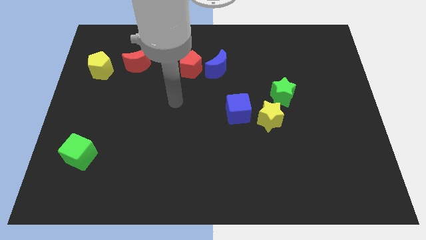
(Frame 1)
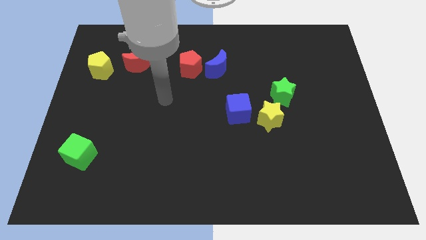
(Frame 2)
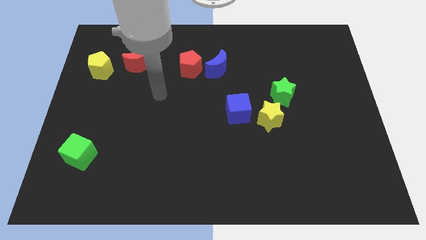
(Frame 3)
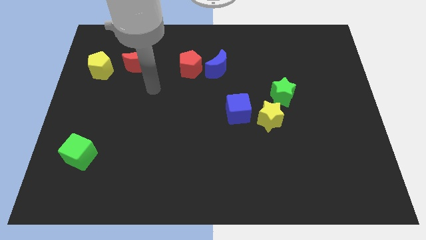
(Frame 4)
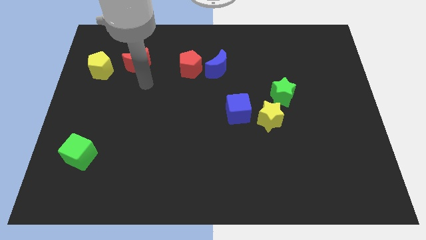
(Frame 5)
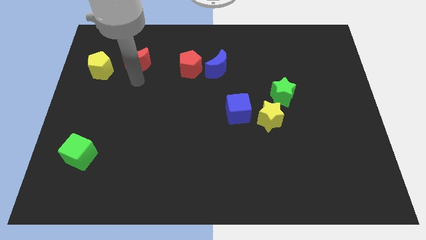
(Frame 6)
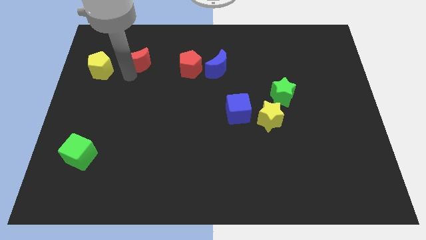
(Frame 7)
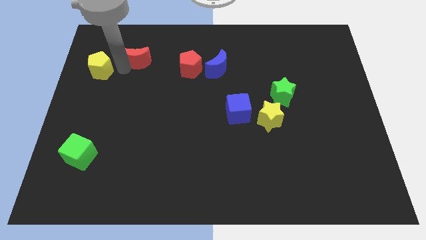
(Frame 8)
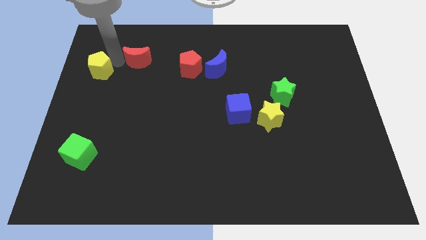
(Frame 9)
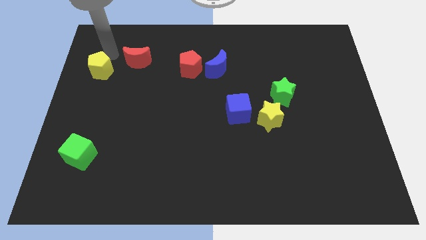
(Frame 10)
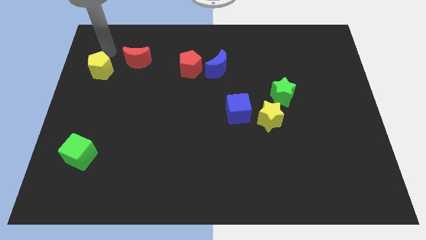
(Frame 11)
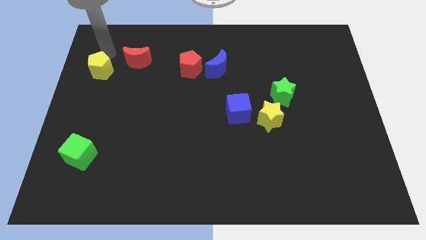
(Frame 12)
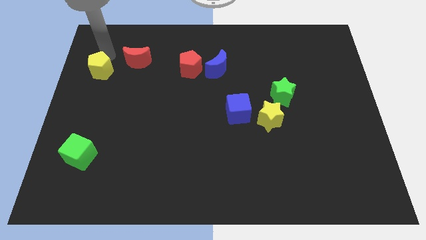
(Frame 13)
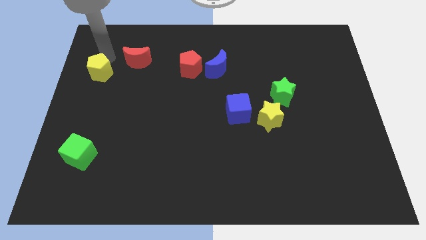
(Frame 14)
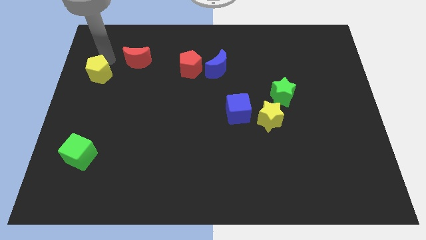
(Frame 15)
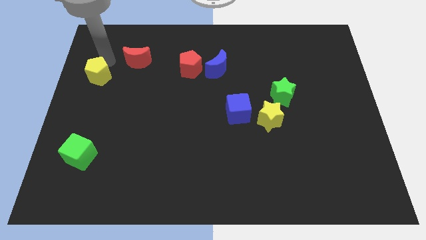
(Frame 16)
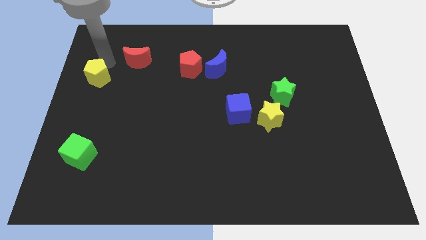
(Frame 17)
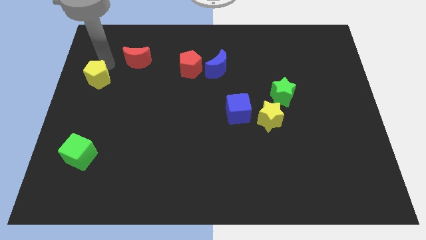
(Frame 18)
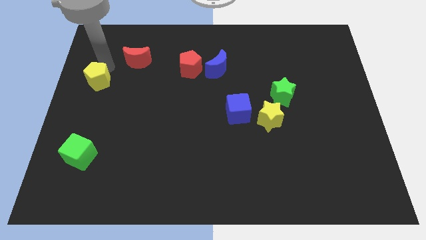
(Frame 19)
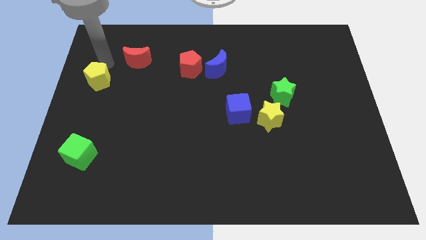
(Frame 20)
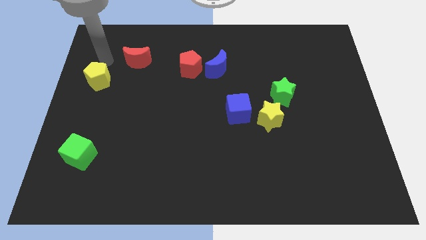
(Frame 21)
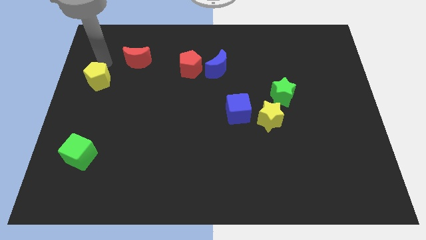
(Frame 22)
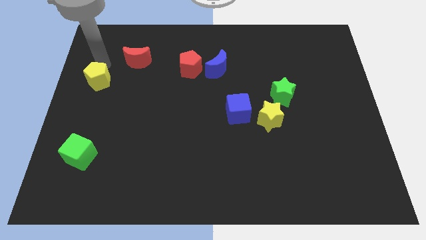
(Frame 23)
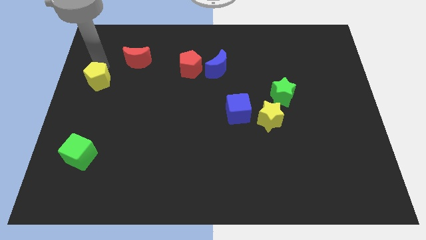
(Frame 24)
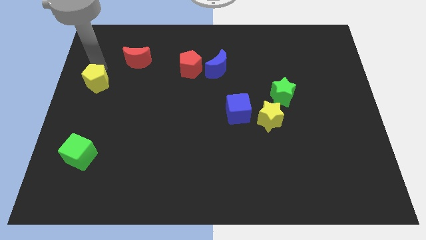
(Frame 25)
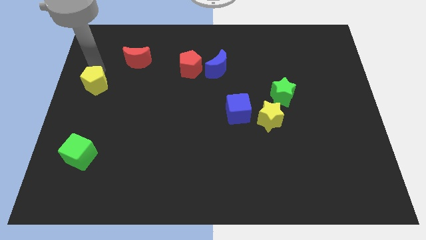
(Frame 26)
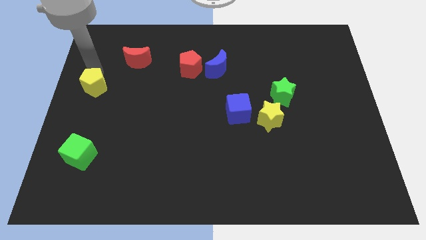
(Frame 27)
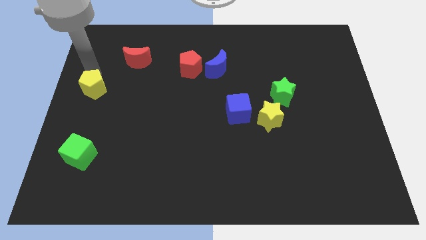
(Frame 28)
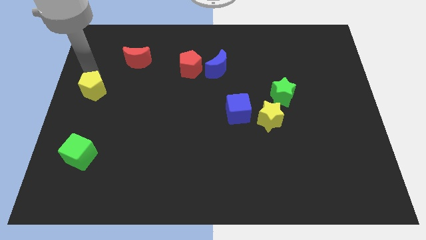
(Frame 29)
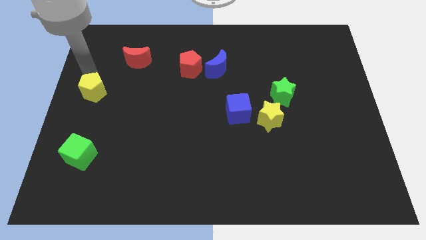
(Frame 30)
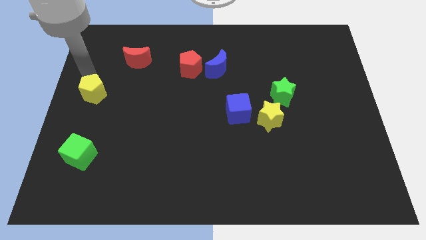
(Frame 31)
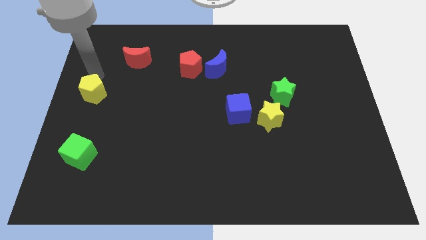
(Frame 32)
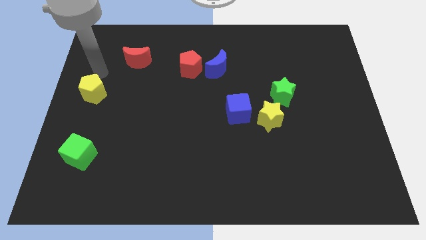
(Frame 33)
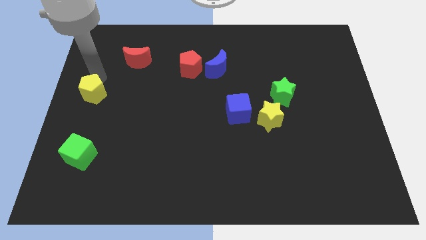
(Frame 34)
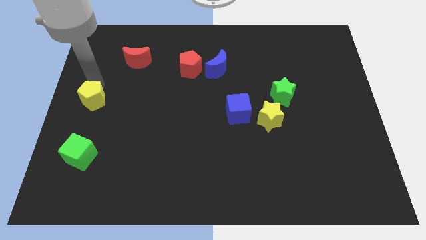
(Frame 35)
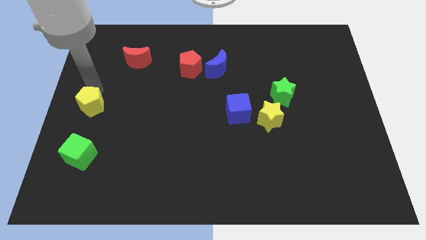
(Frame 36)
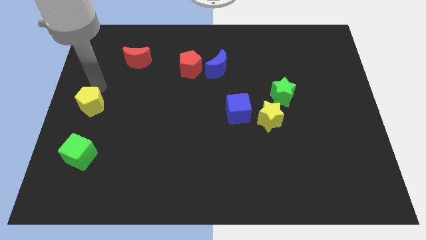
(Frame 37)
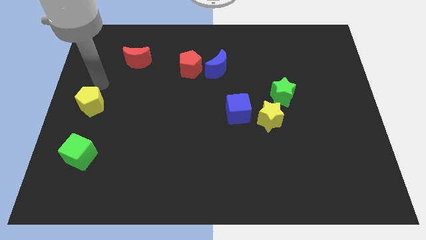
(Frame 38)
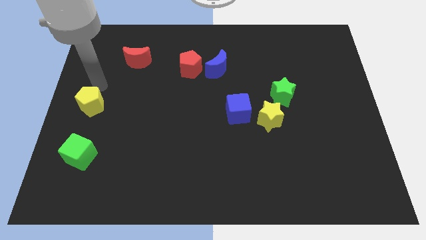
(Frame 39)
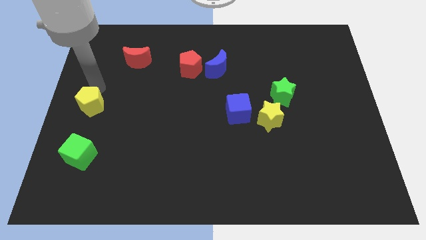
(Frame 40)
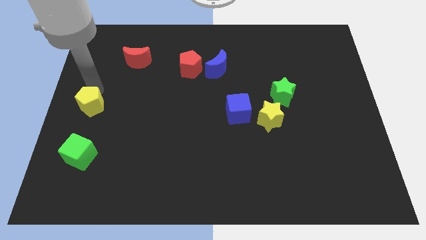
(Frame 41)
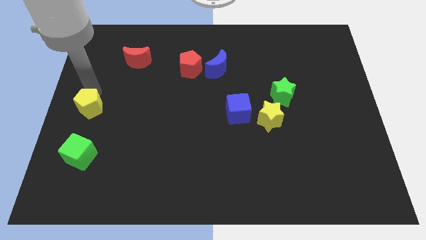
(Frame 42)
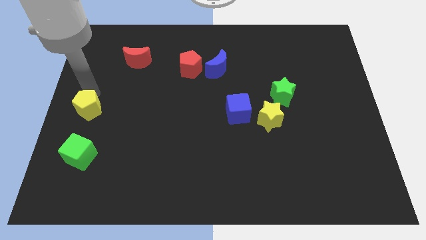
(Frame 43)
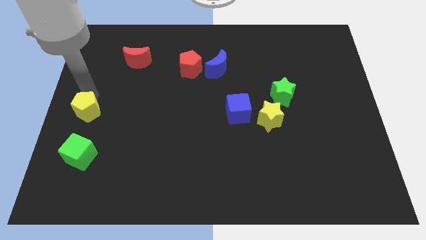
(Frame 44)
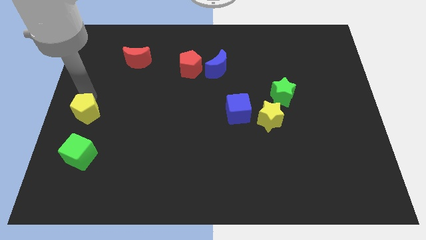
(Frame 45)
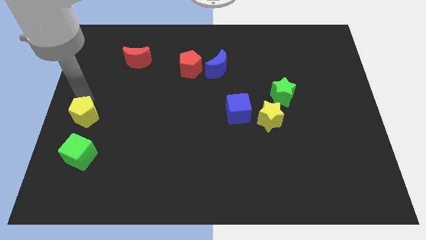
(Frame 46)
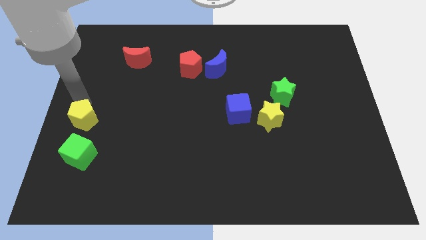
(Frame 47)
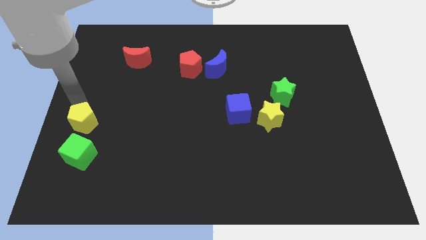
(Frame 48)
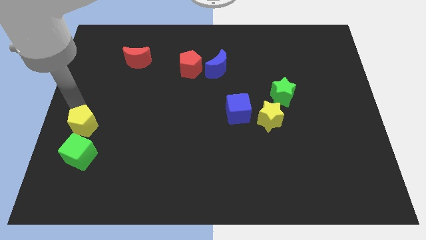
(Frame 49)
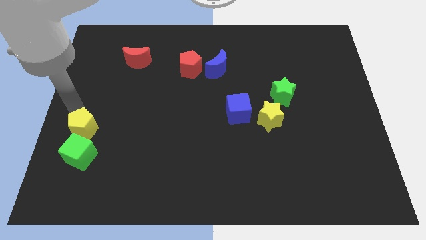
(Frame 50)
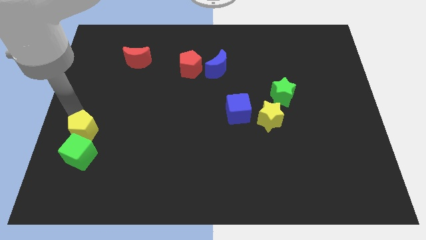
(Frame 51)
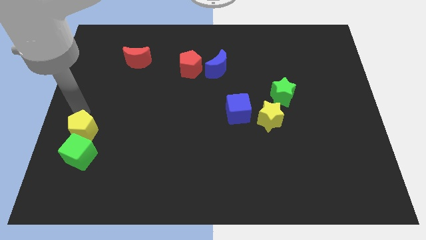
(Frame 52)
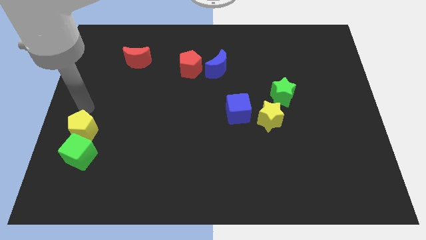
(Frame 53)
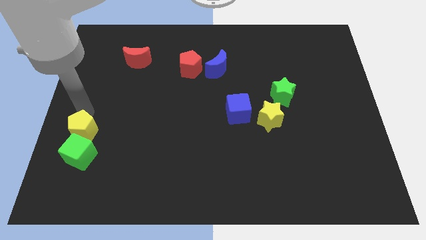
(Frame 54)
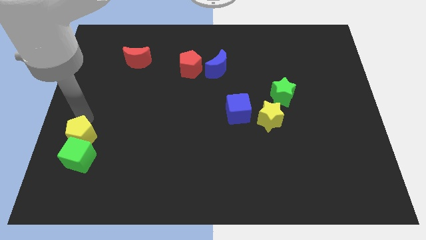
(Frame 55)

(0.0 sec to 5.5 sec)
slide the yellow pentagon next to the green cube

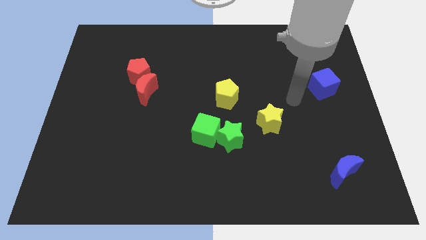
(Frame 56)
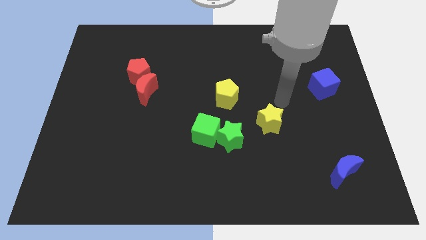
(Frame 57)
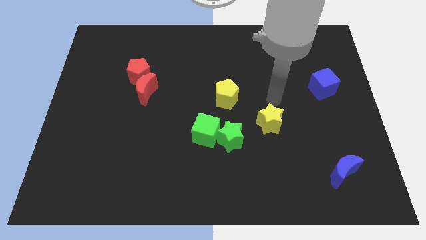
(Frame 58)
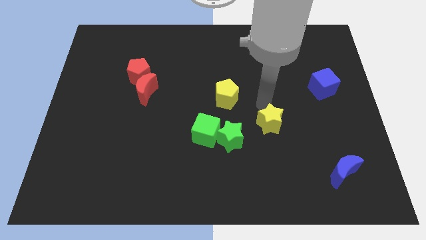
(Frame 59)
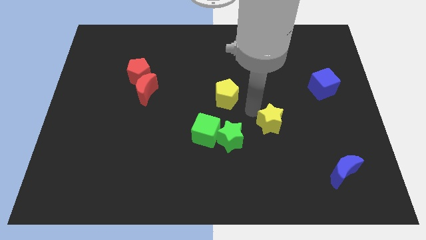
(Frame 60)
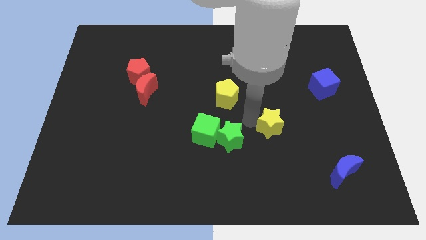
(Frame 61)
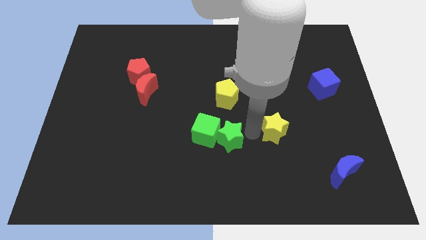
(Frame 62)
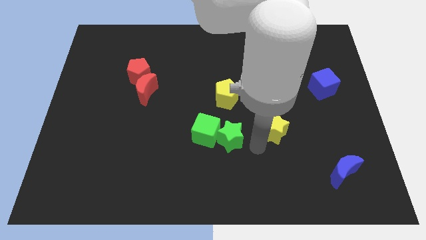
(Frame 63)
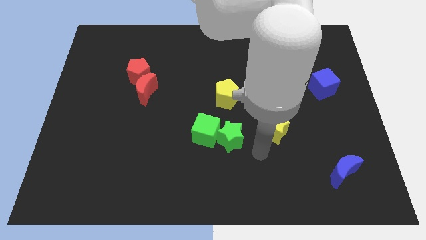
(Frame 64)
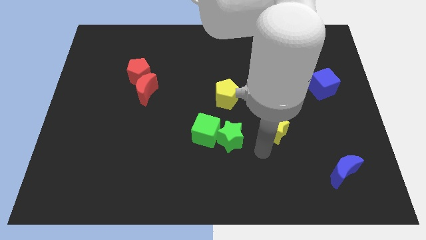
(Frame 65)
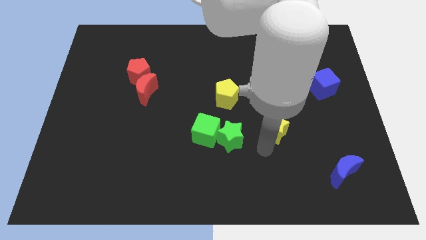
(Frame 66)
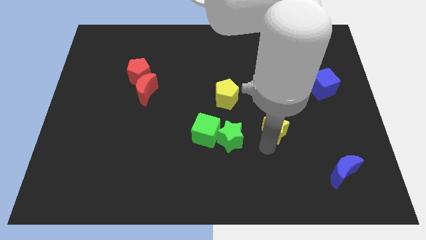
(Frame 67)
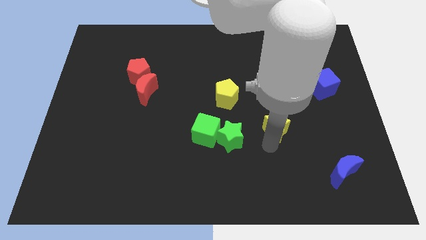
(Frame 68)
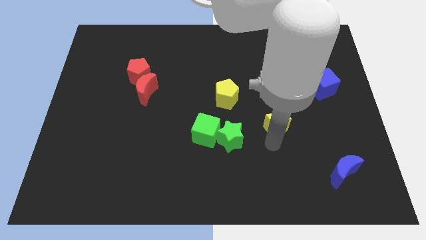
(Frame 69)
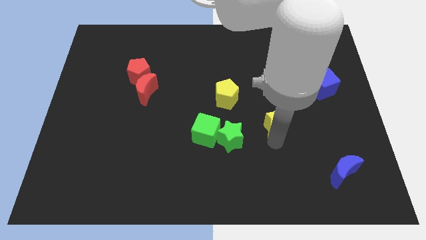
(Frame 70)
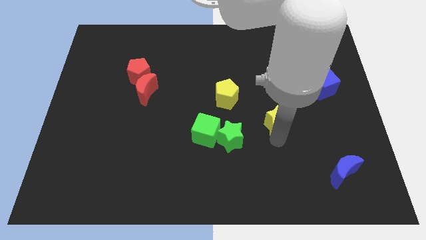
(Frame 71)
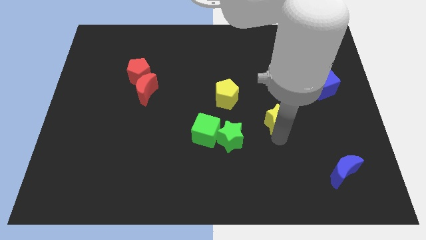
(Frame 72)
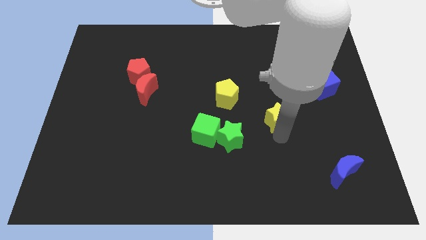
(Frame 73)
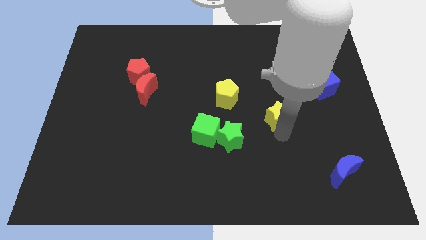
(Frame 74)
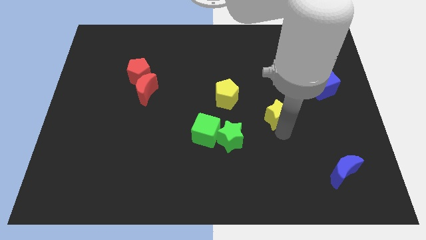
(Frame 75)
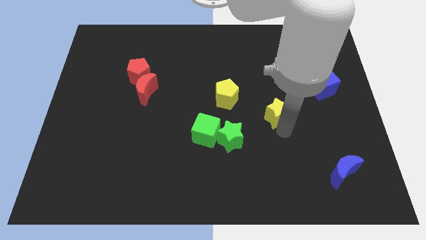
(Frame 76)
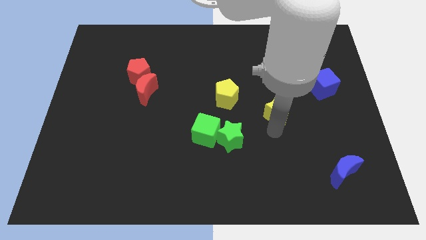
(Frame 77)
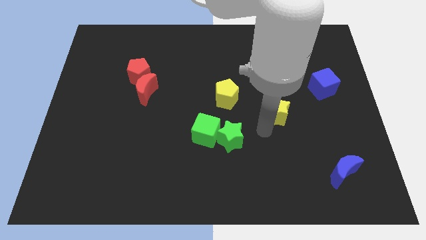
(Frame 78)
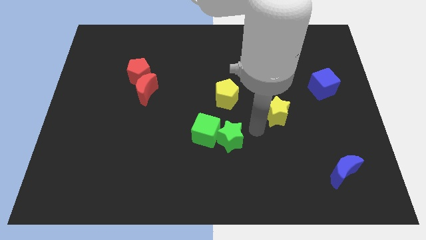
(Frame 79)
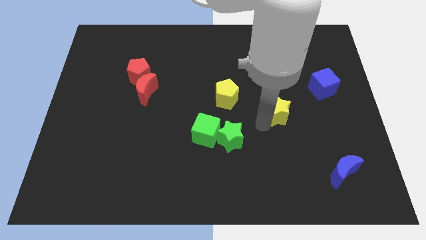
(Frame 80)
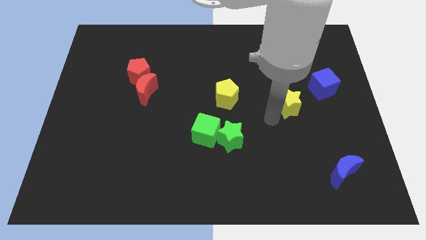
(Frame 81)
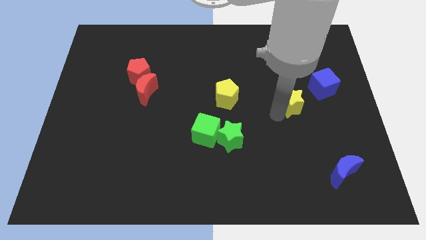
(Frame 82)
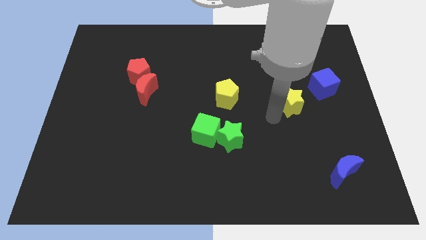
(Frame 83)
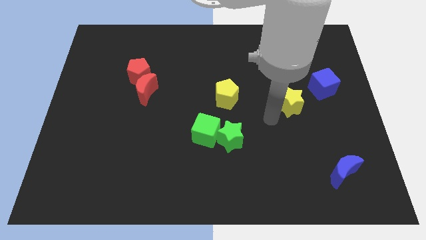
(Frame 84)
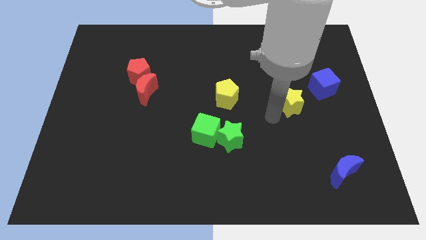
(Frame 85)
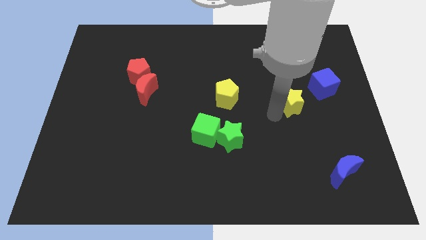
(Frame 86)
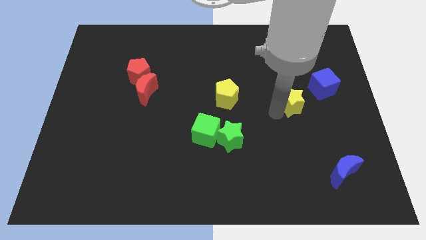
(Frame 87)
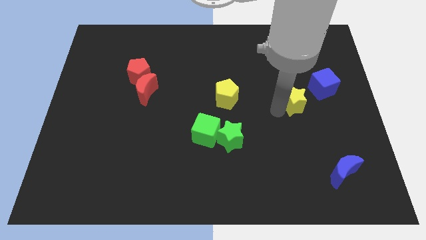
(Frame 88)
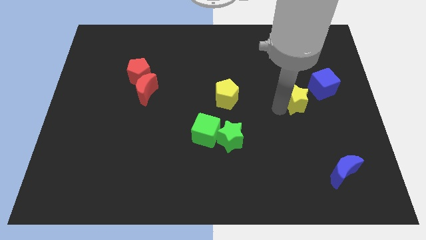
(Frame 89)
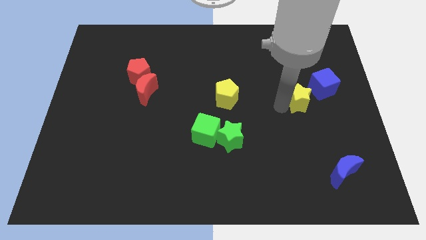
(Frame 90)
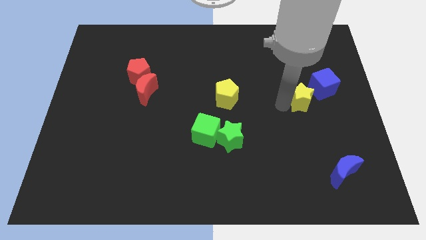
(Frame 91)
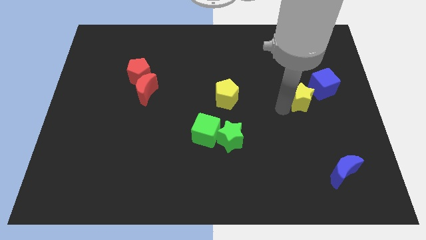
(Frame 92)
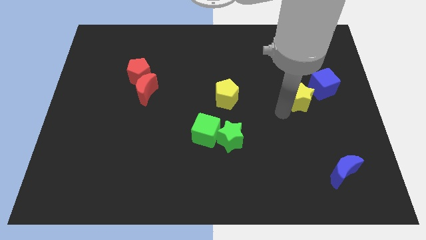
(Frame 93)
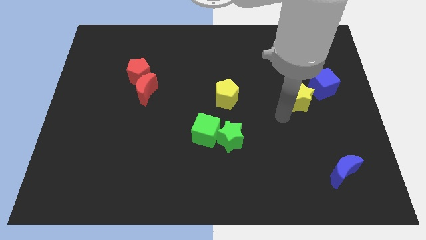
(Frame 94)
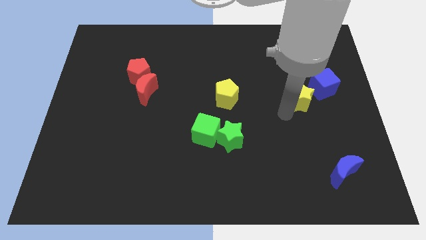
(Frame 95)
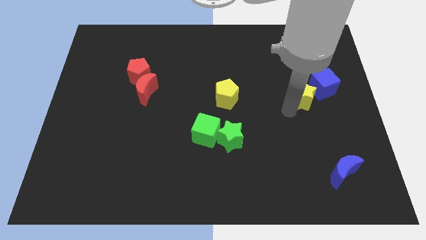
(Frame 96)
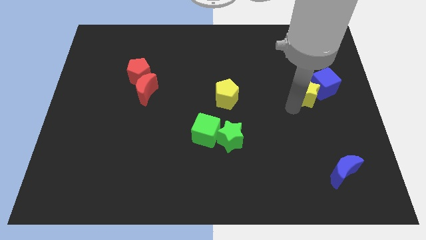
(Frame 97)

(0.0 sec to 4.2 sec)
slide the yellow star to the blue cube
